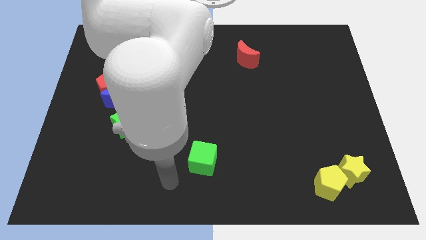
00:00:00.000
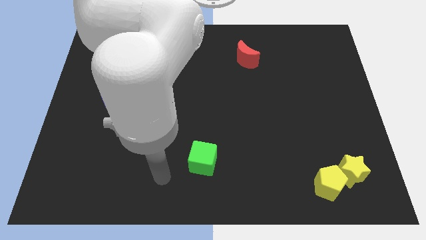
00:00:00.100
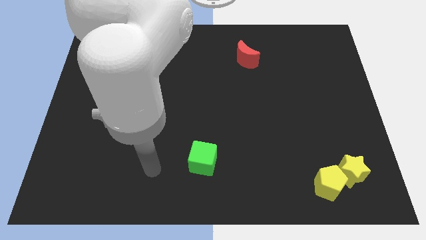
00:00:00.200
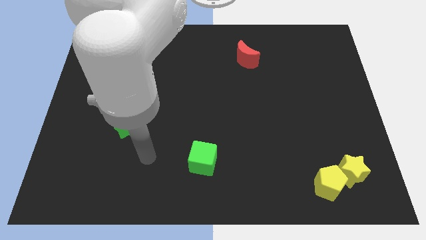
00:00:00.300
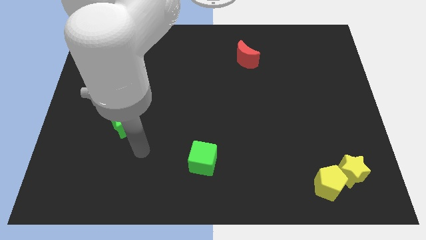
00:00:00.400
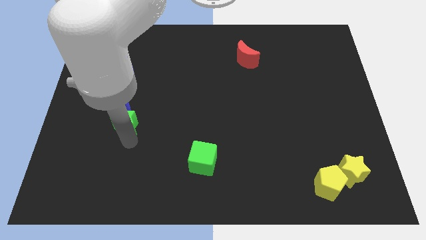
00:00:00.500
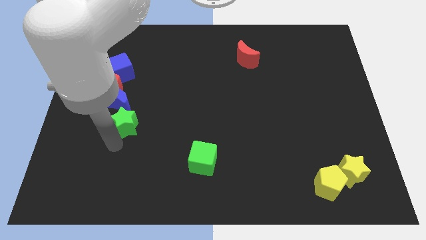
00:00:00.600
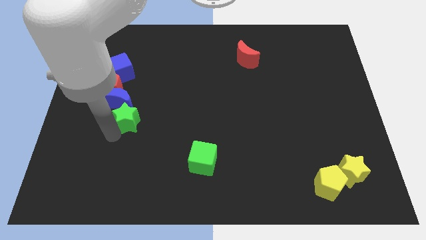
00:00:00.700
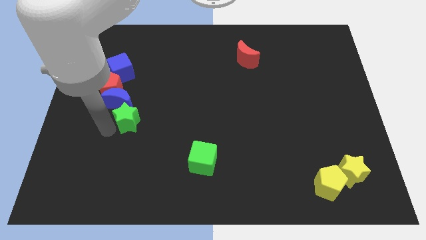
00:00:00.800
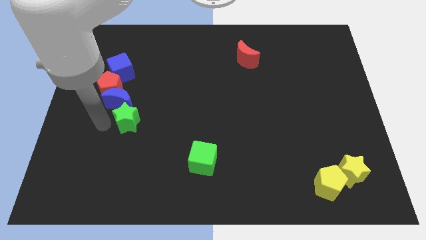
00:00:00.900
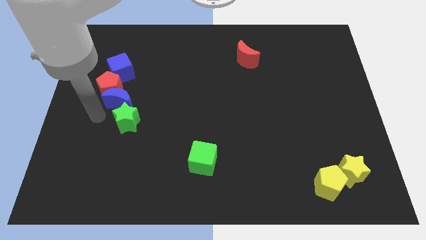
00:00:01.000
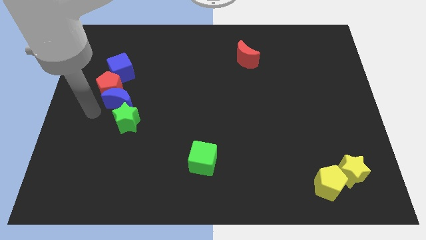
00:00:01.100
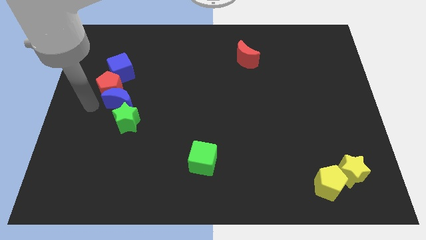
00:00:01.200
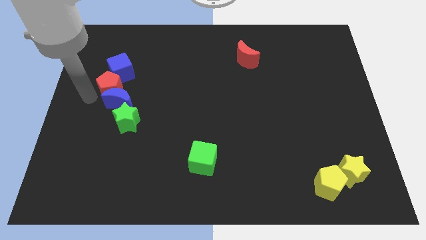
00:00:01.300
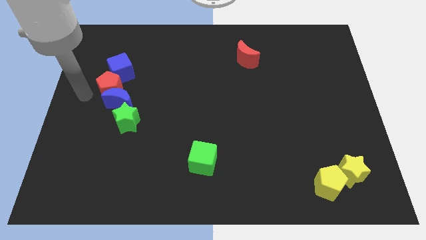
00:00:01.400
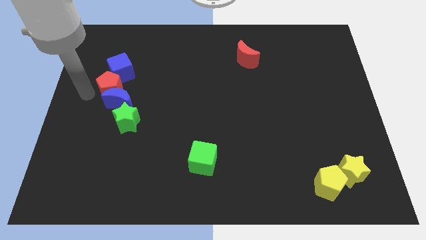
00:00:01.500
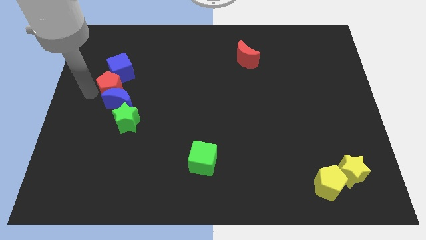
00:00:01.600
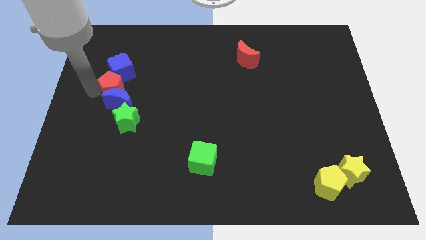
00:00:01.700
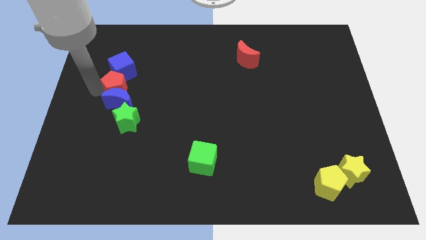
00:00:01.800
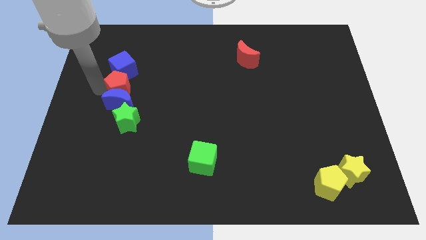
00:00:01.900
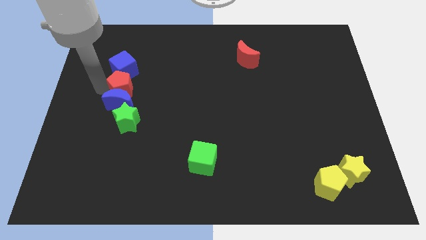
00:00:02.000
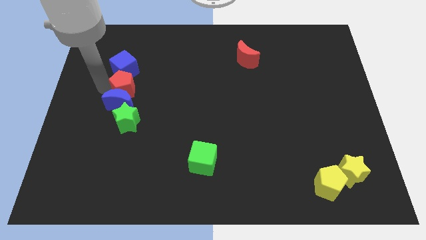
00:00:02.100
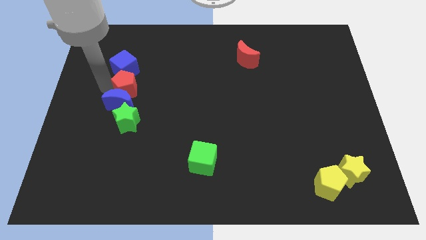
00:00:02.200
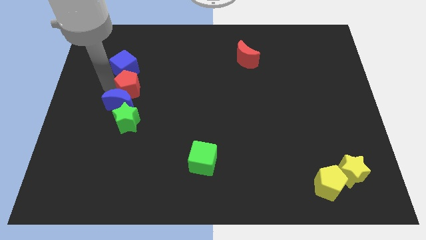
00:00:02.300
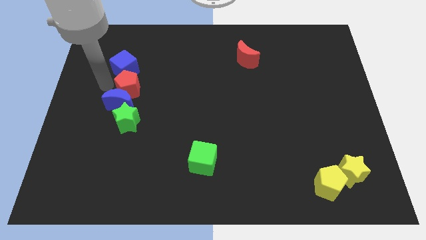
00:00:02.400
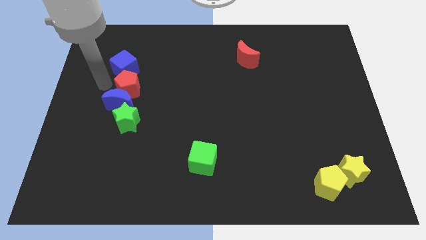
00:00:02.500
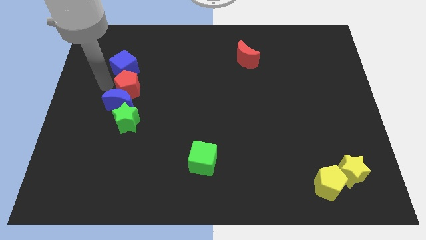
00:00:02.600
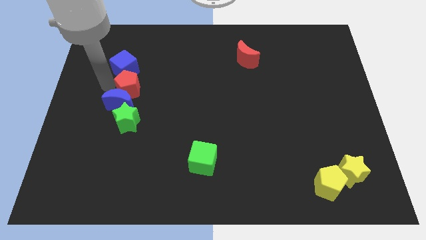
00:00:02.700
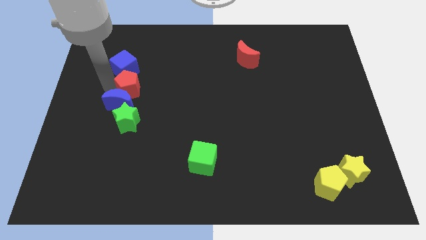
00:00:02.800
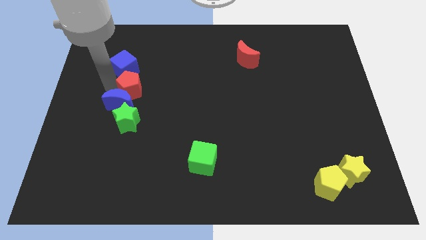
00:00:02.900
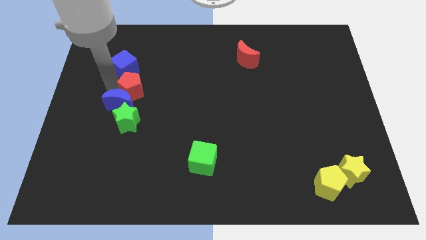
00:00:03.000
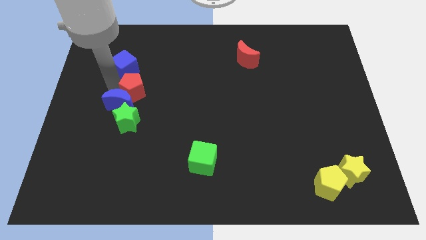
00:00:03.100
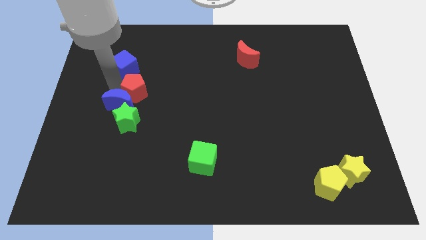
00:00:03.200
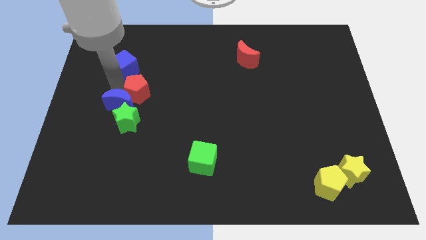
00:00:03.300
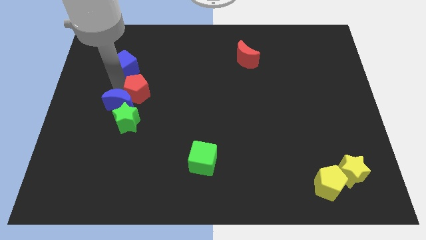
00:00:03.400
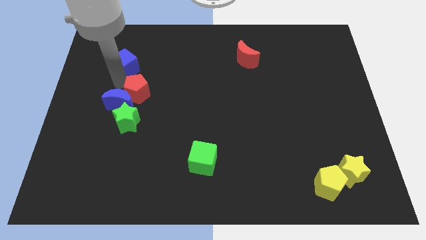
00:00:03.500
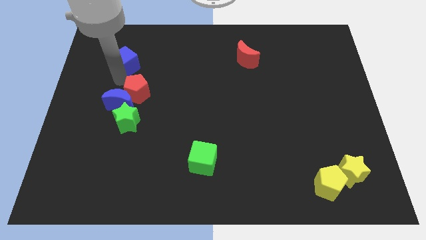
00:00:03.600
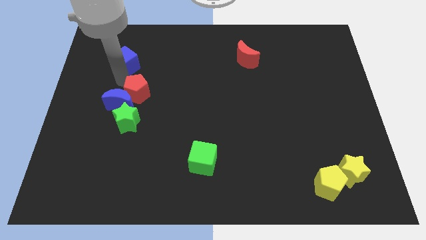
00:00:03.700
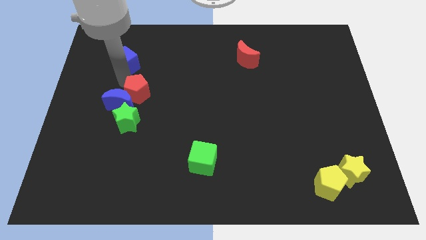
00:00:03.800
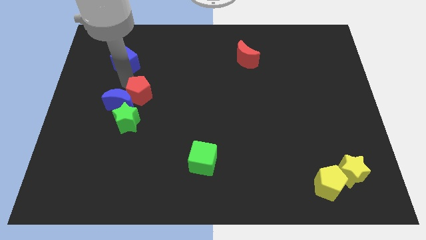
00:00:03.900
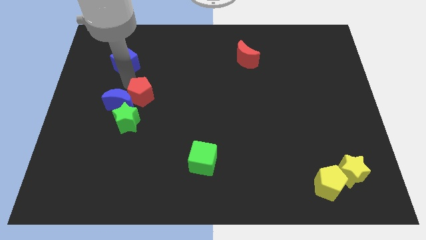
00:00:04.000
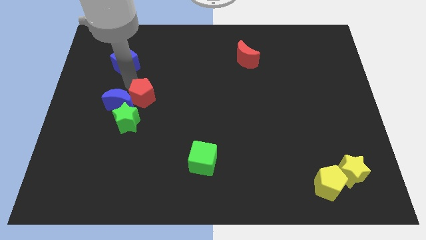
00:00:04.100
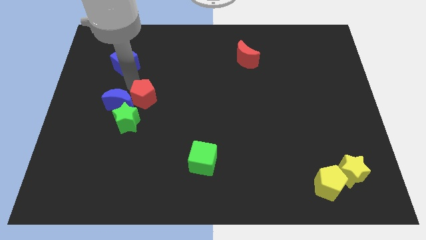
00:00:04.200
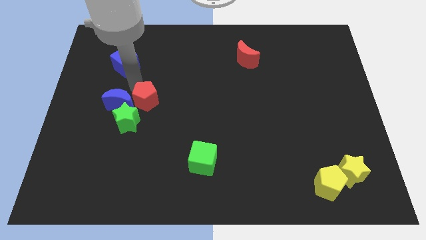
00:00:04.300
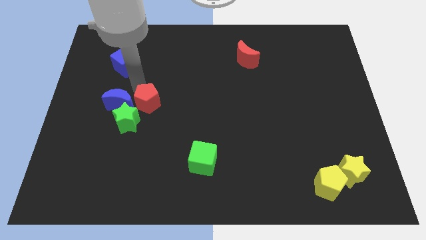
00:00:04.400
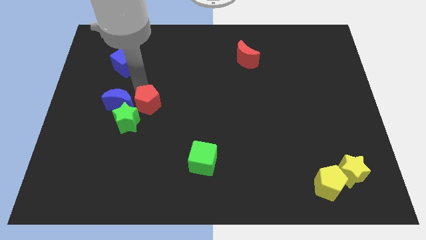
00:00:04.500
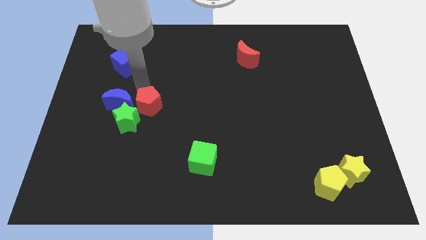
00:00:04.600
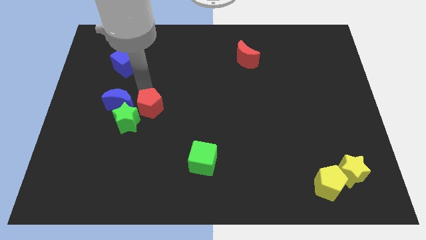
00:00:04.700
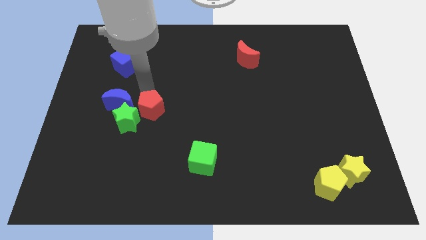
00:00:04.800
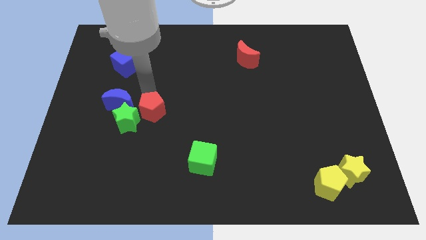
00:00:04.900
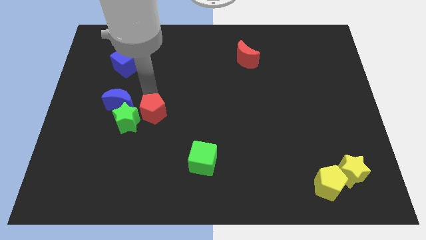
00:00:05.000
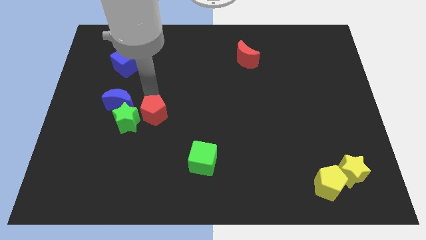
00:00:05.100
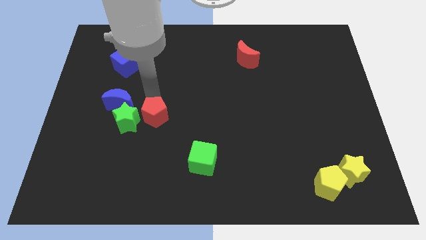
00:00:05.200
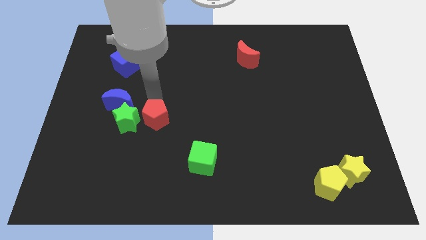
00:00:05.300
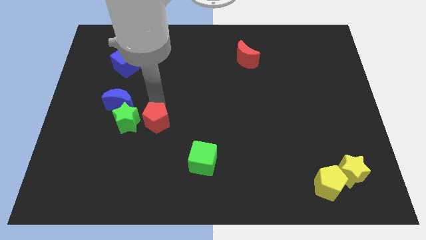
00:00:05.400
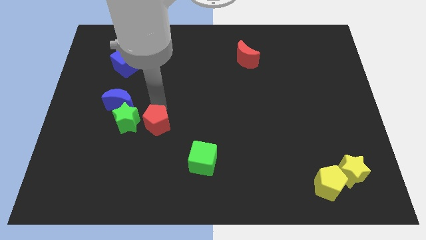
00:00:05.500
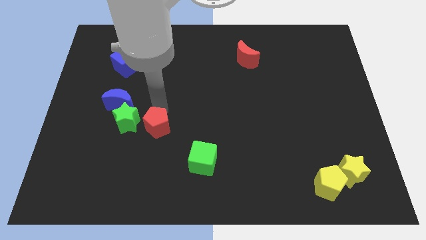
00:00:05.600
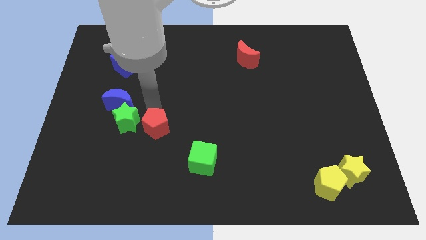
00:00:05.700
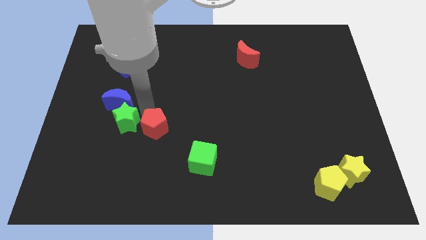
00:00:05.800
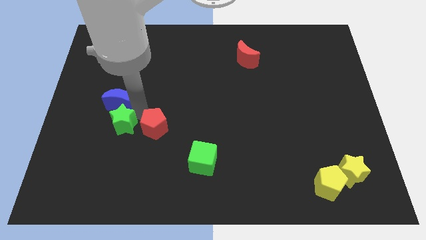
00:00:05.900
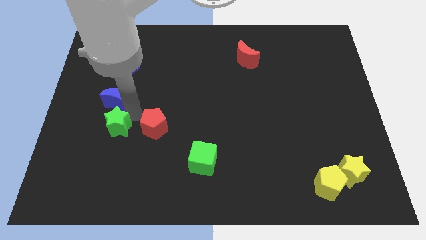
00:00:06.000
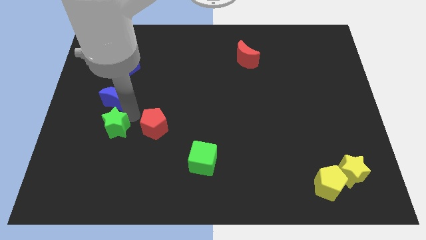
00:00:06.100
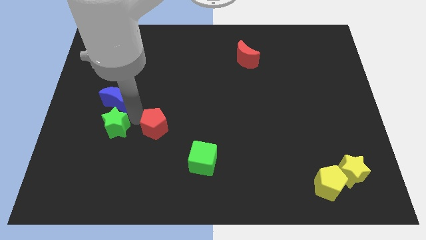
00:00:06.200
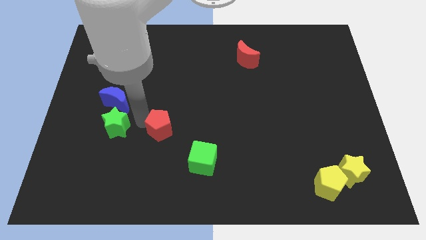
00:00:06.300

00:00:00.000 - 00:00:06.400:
move the red pentagon to the top left of the green cube

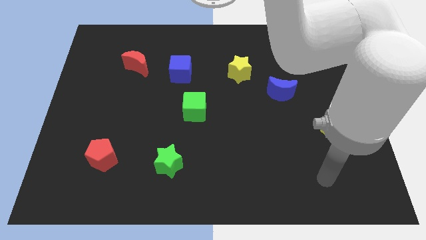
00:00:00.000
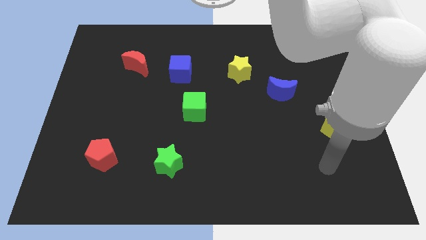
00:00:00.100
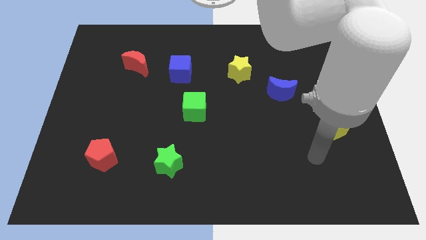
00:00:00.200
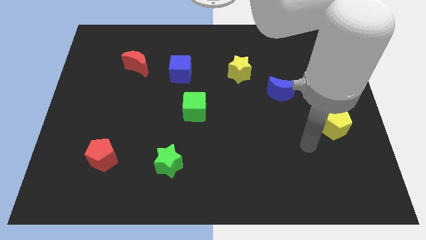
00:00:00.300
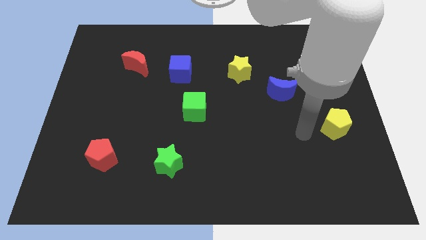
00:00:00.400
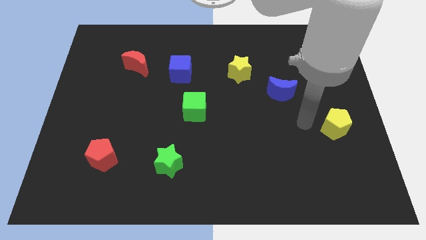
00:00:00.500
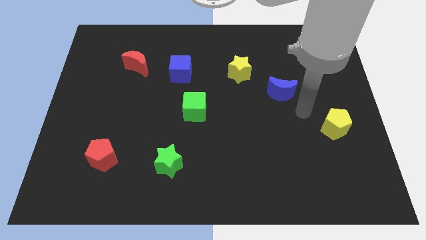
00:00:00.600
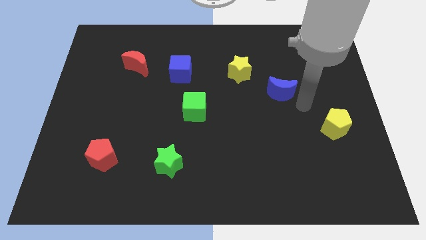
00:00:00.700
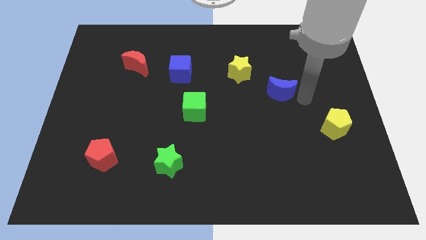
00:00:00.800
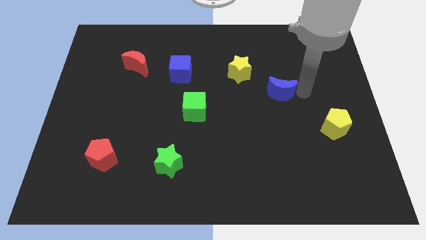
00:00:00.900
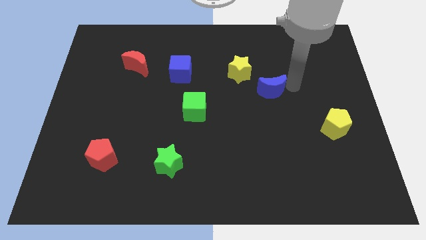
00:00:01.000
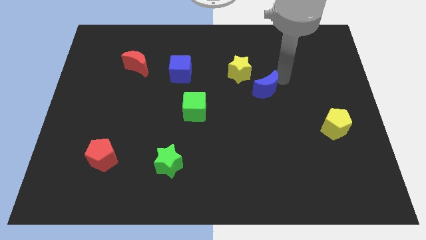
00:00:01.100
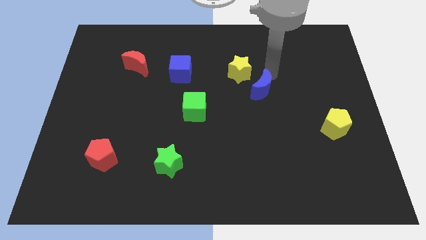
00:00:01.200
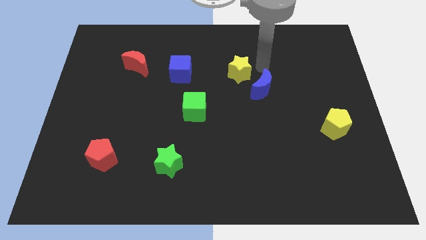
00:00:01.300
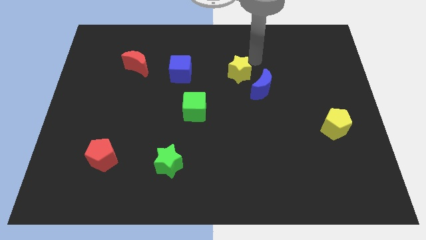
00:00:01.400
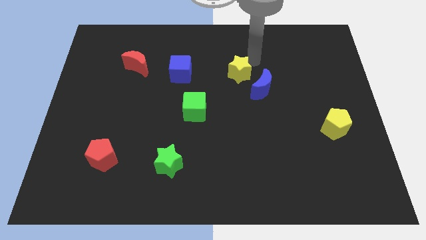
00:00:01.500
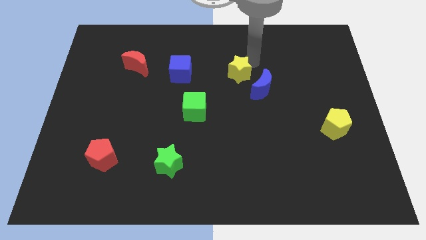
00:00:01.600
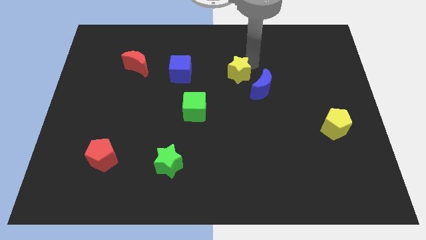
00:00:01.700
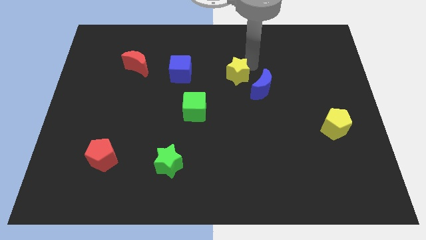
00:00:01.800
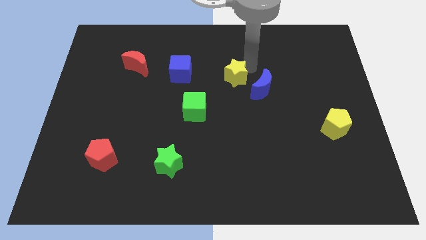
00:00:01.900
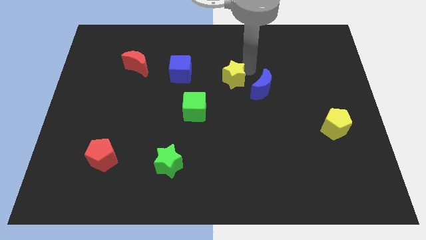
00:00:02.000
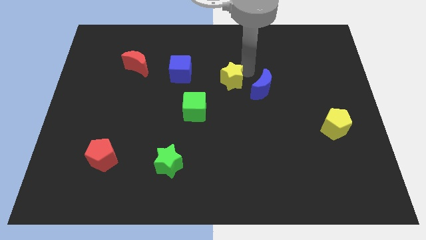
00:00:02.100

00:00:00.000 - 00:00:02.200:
slide the yellow star to the top right of the green cube
